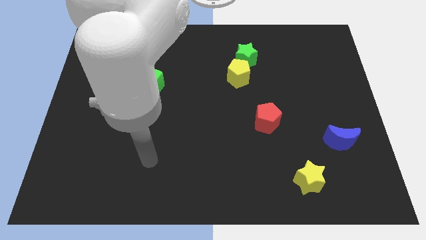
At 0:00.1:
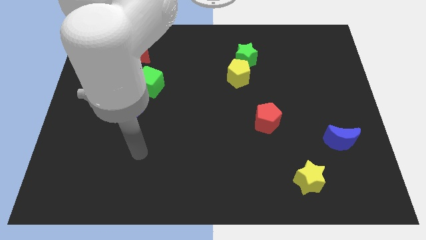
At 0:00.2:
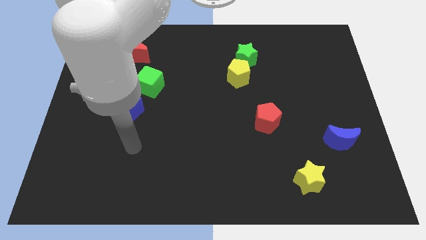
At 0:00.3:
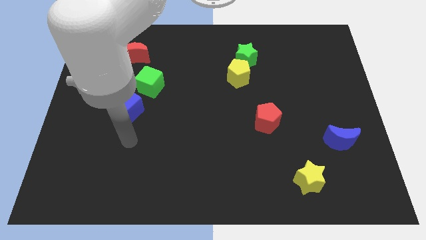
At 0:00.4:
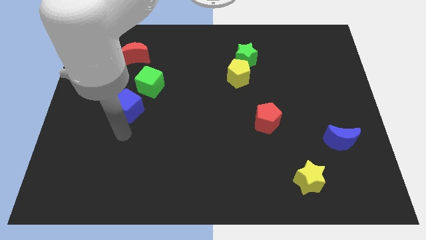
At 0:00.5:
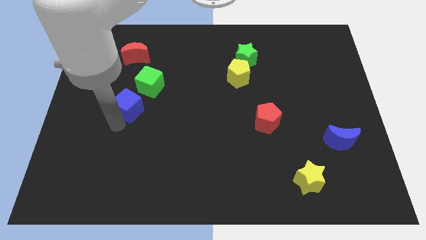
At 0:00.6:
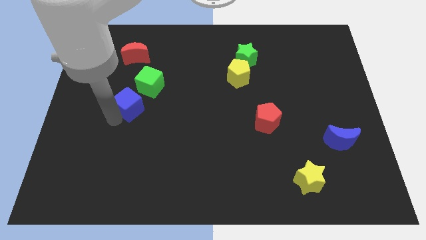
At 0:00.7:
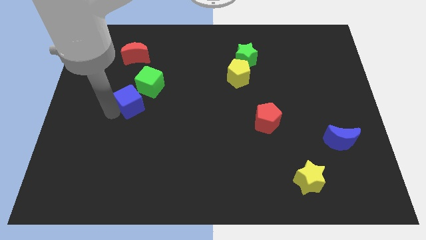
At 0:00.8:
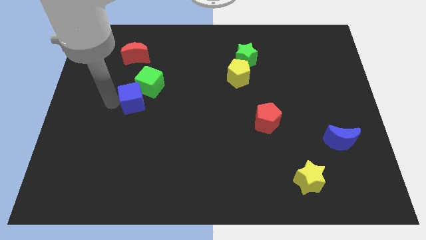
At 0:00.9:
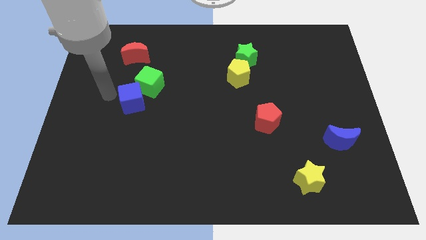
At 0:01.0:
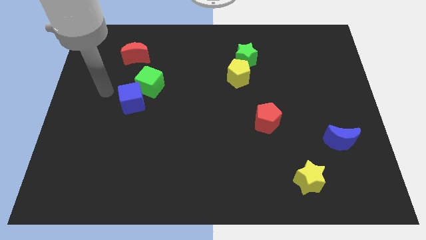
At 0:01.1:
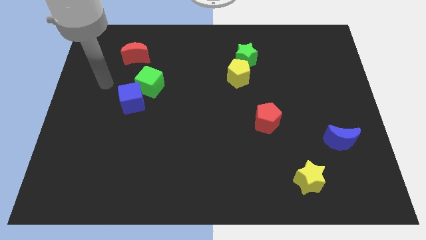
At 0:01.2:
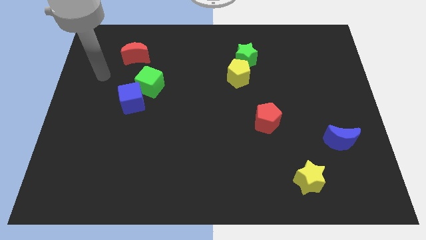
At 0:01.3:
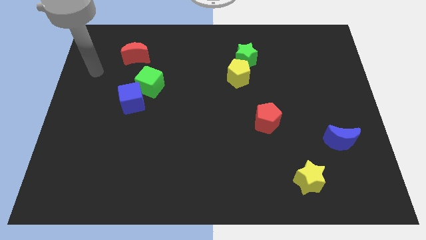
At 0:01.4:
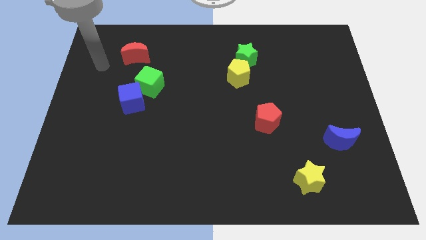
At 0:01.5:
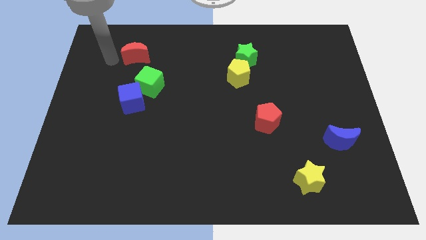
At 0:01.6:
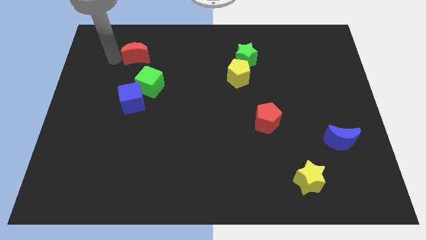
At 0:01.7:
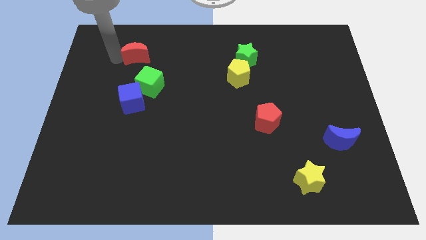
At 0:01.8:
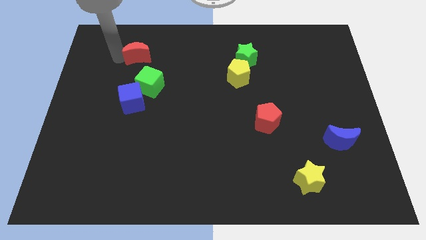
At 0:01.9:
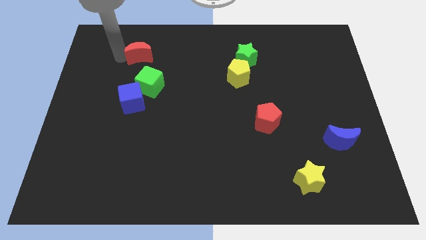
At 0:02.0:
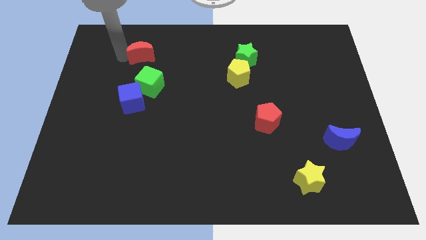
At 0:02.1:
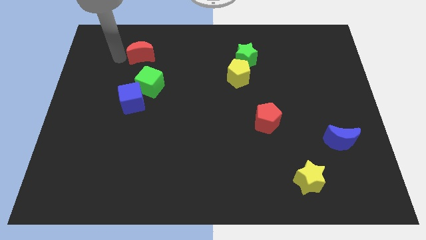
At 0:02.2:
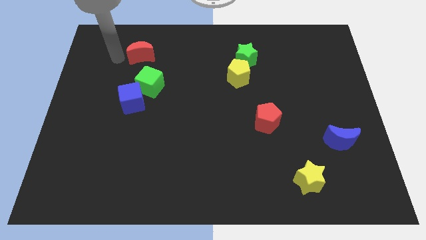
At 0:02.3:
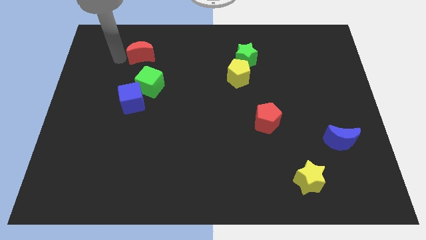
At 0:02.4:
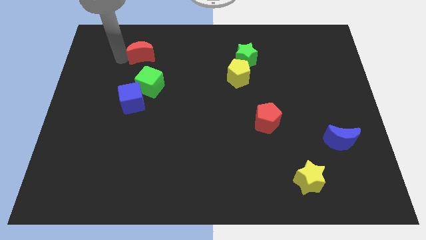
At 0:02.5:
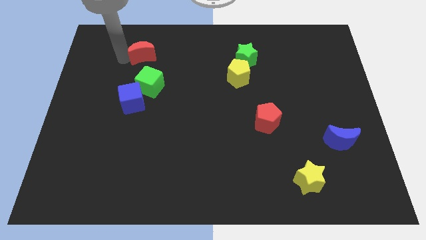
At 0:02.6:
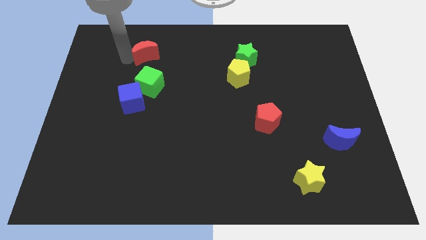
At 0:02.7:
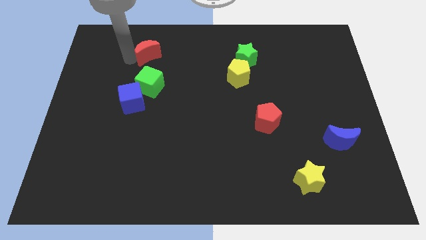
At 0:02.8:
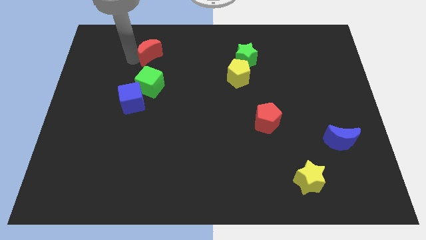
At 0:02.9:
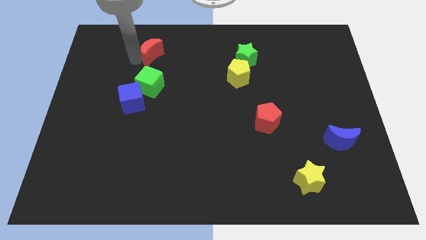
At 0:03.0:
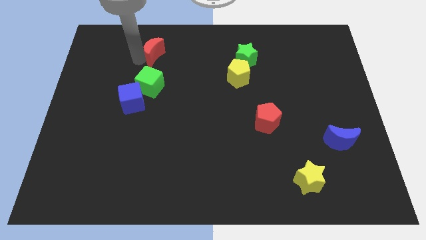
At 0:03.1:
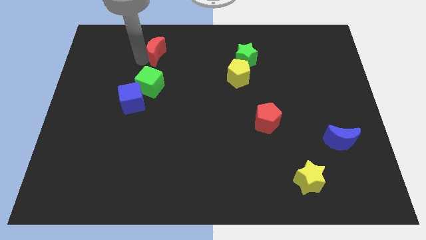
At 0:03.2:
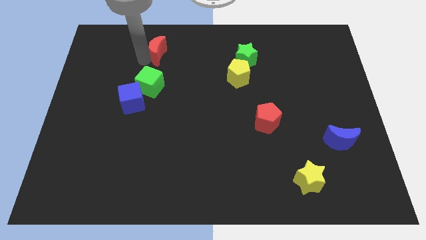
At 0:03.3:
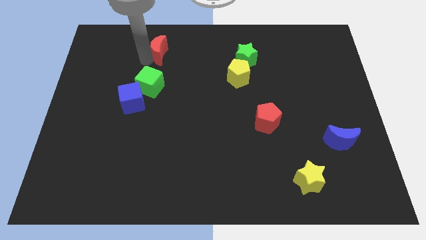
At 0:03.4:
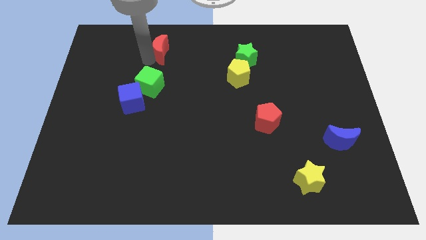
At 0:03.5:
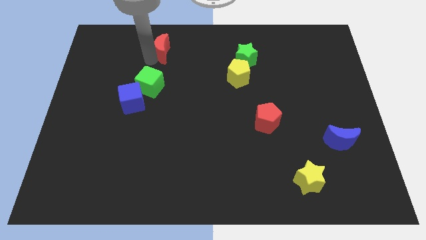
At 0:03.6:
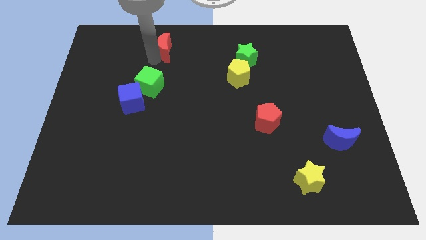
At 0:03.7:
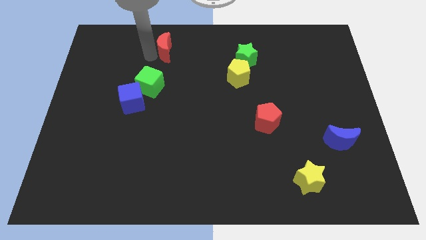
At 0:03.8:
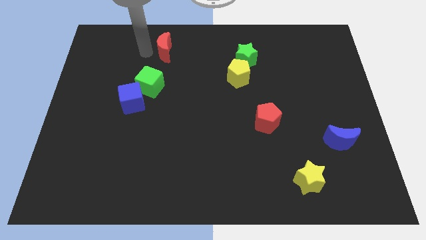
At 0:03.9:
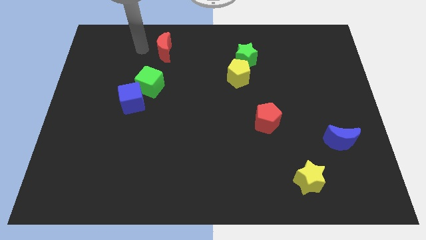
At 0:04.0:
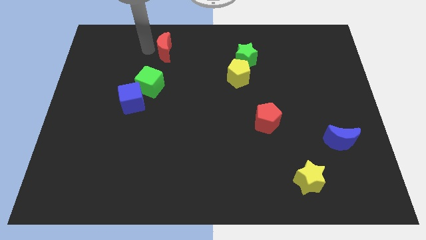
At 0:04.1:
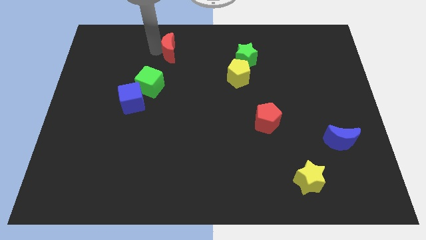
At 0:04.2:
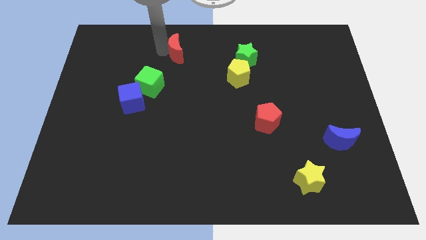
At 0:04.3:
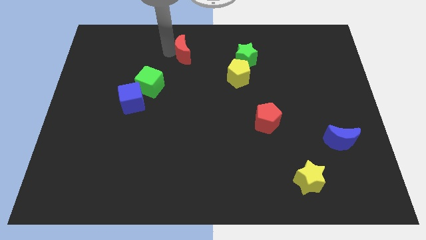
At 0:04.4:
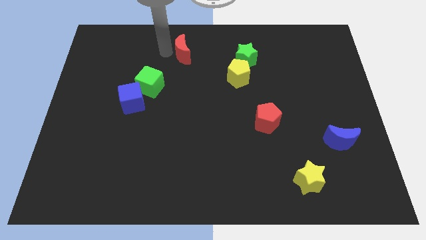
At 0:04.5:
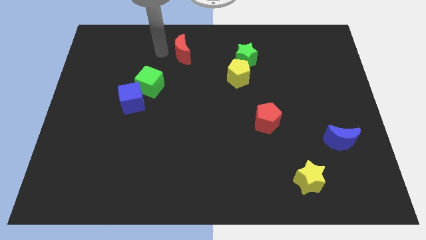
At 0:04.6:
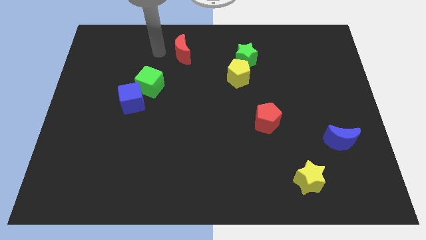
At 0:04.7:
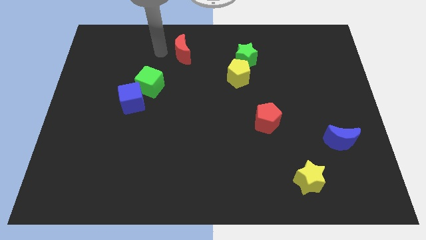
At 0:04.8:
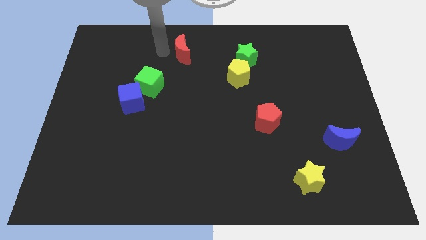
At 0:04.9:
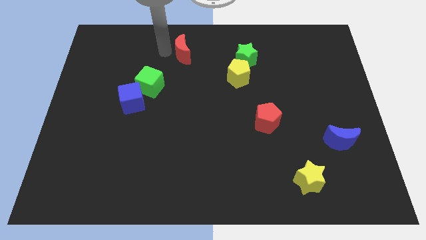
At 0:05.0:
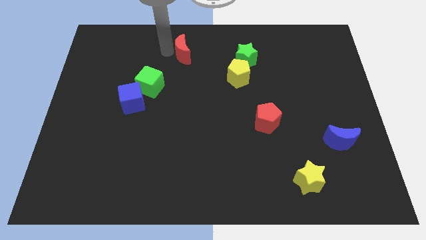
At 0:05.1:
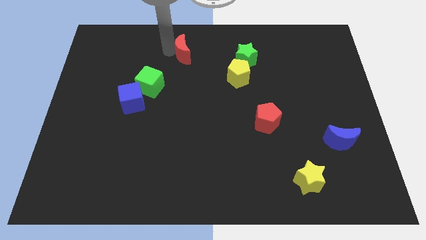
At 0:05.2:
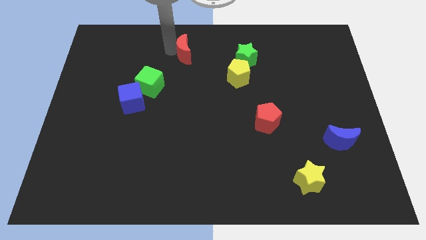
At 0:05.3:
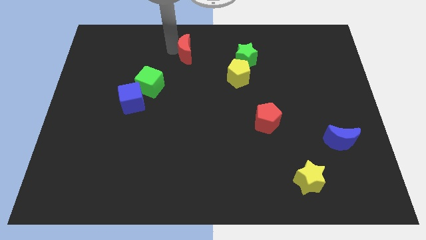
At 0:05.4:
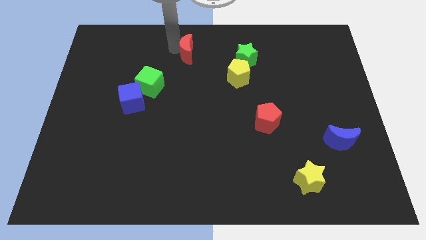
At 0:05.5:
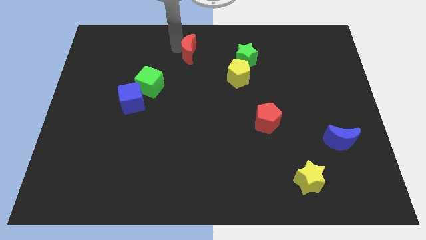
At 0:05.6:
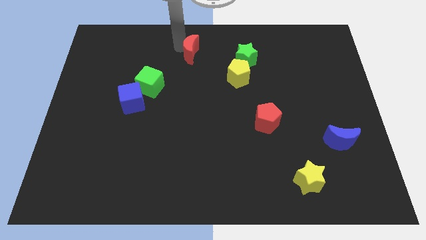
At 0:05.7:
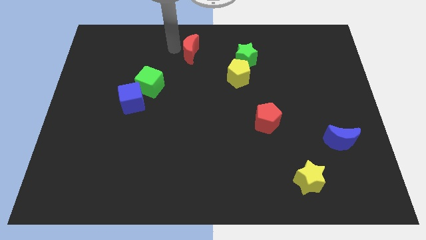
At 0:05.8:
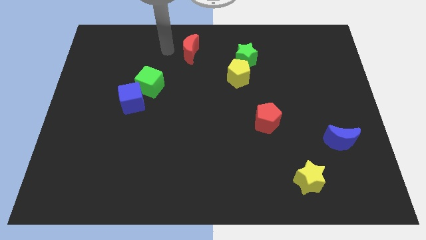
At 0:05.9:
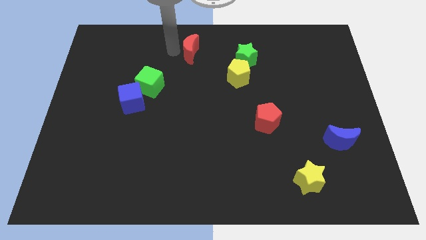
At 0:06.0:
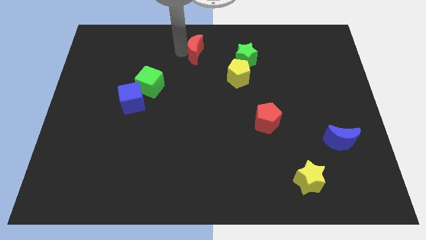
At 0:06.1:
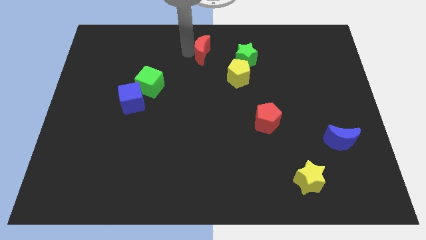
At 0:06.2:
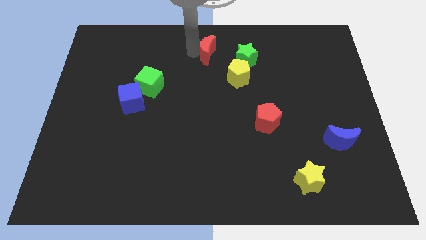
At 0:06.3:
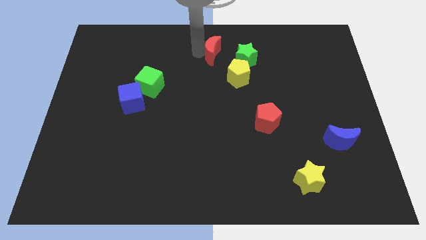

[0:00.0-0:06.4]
move the red moon right

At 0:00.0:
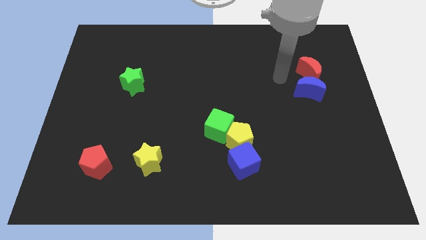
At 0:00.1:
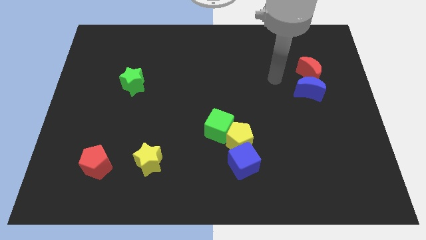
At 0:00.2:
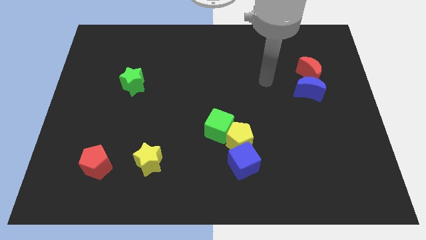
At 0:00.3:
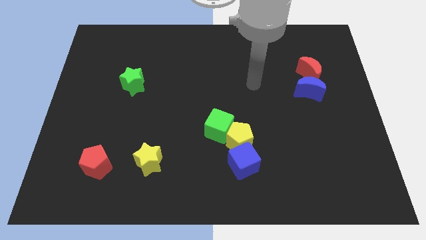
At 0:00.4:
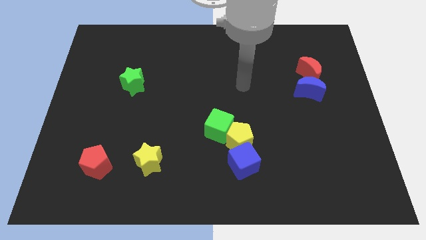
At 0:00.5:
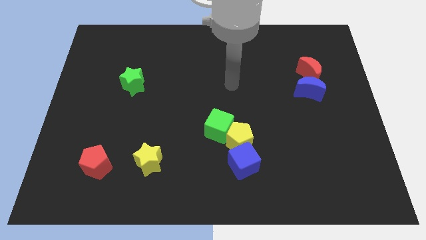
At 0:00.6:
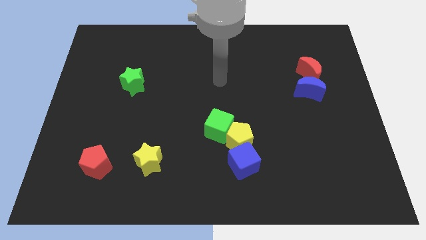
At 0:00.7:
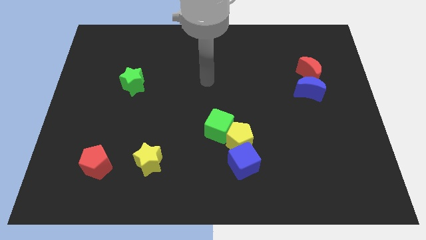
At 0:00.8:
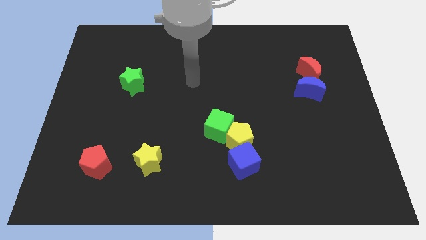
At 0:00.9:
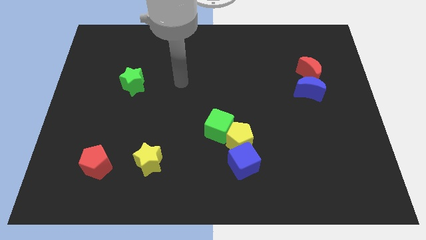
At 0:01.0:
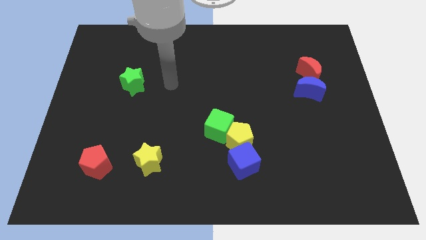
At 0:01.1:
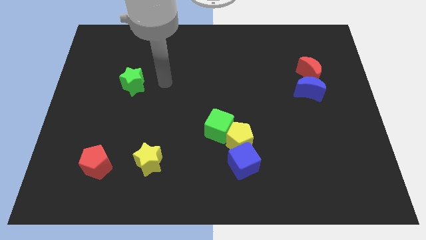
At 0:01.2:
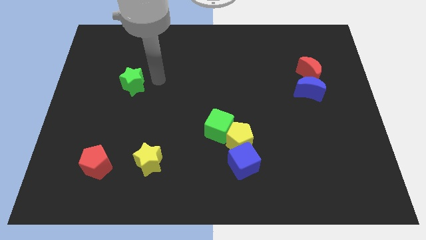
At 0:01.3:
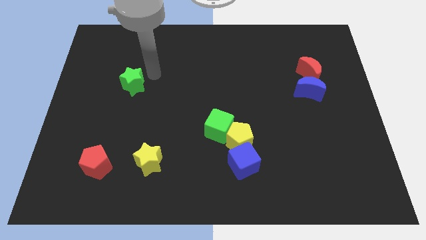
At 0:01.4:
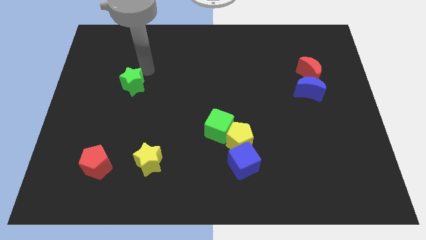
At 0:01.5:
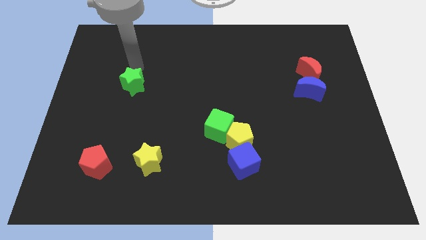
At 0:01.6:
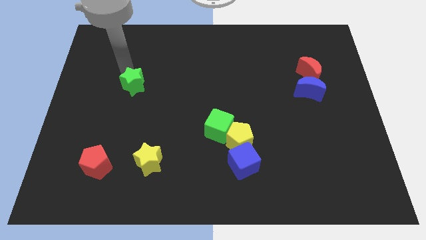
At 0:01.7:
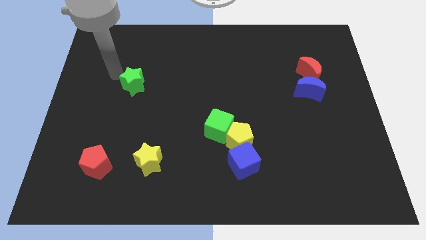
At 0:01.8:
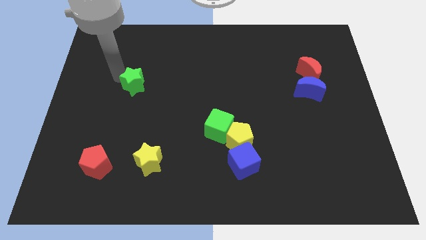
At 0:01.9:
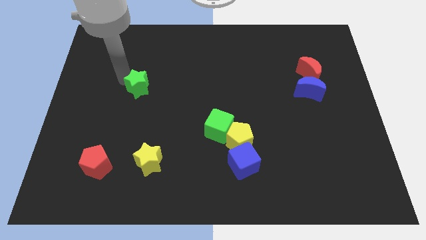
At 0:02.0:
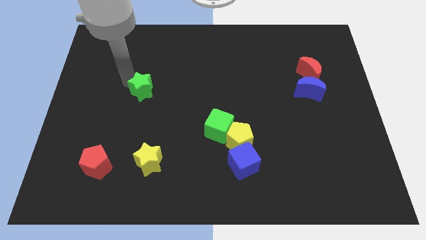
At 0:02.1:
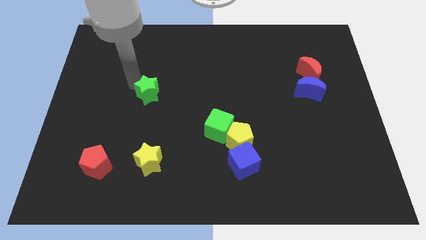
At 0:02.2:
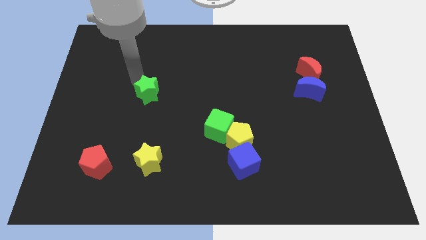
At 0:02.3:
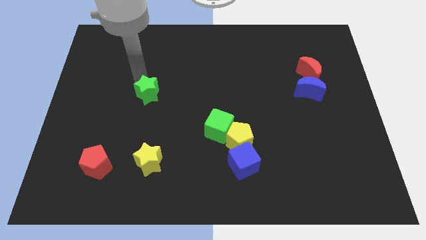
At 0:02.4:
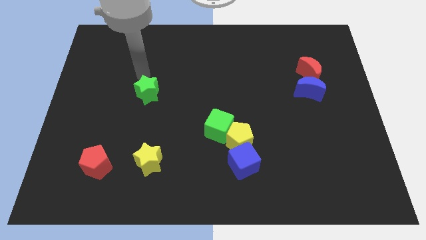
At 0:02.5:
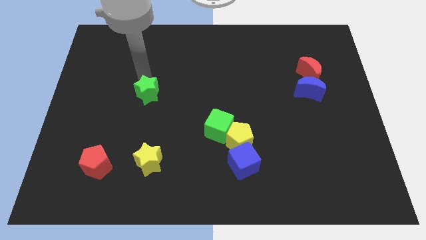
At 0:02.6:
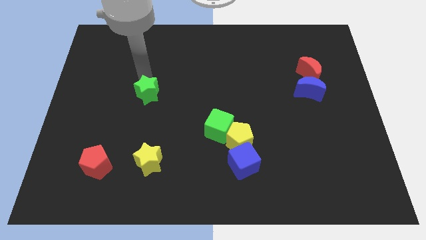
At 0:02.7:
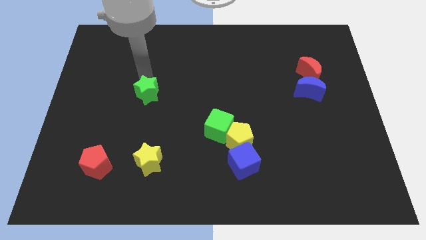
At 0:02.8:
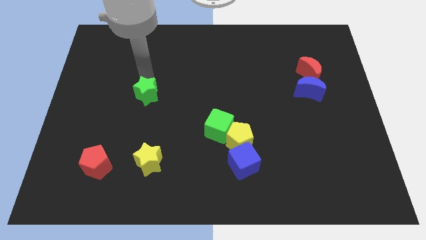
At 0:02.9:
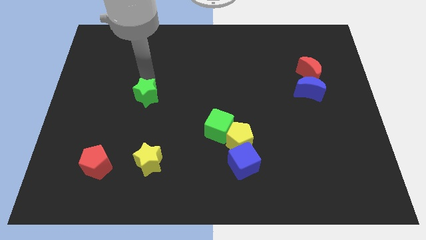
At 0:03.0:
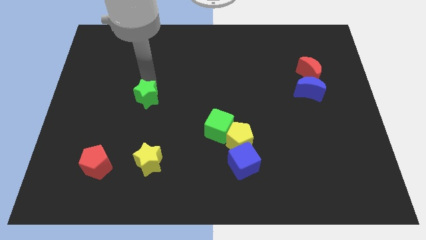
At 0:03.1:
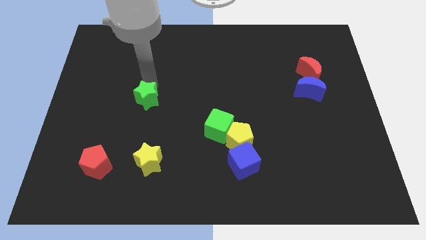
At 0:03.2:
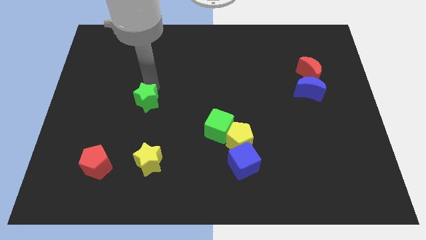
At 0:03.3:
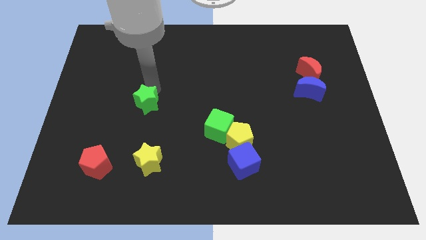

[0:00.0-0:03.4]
slightly push the green star diagonally downwards and right
